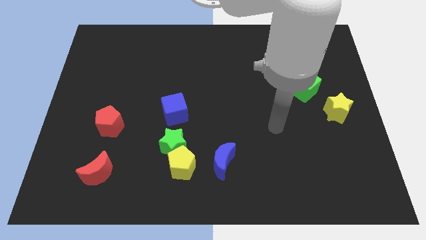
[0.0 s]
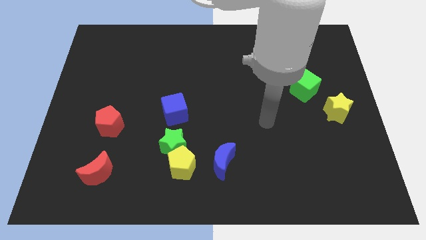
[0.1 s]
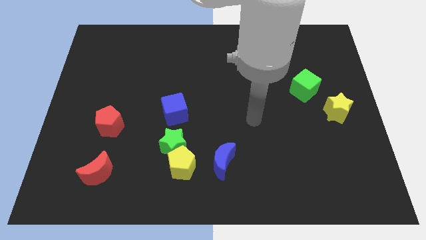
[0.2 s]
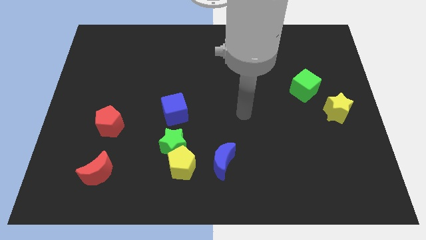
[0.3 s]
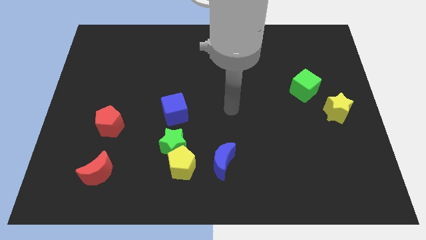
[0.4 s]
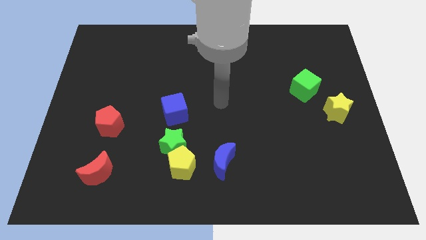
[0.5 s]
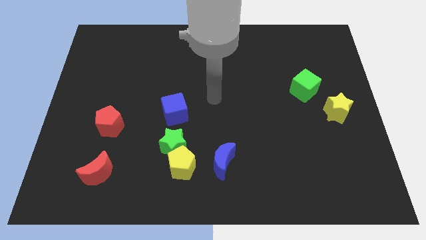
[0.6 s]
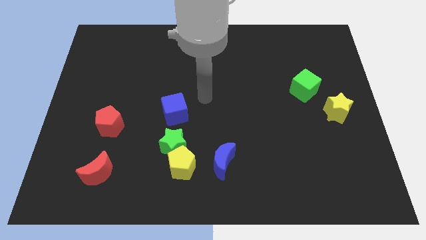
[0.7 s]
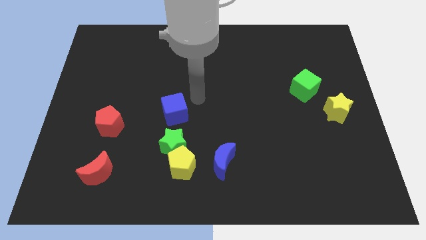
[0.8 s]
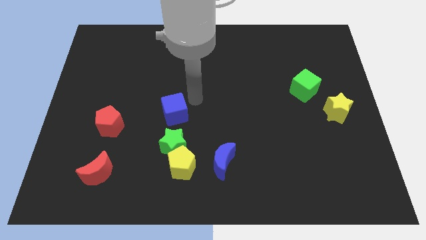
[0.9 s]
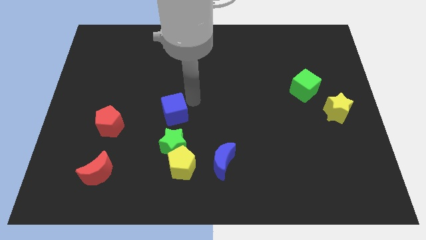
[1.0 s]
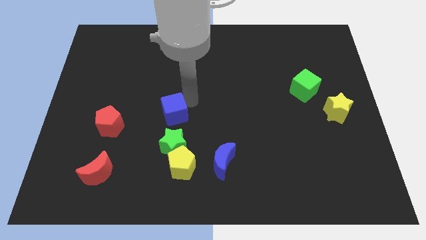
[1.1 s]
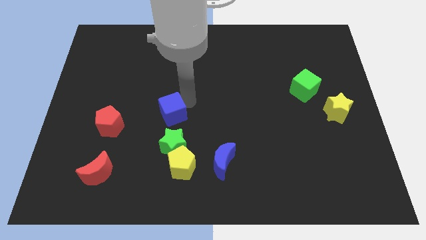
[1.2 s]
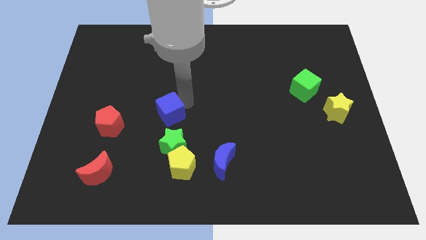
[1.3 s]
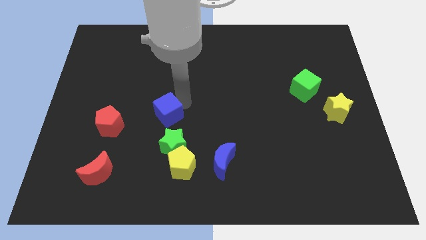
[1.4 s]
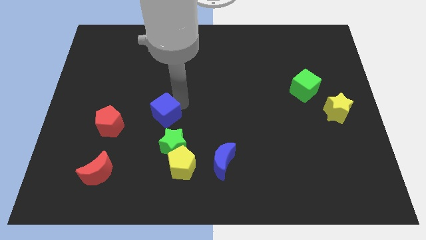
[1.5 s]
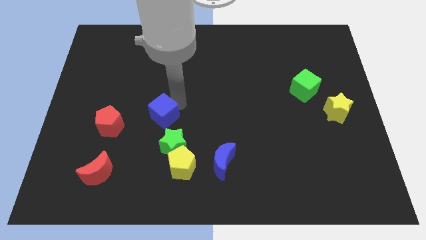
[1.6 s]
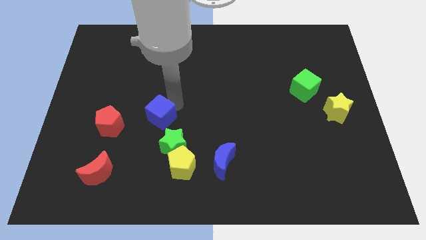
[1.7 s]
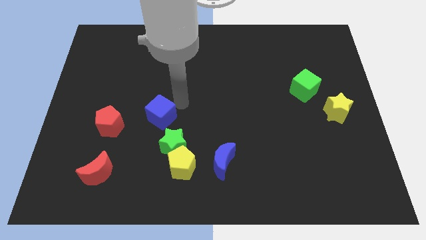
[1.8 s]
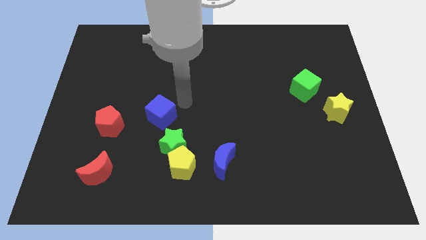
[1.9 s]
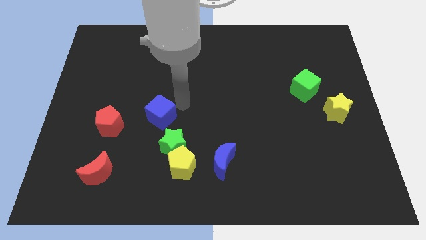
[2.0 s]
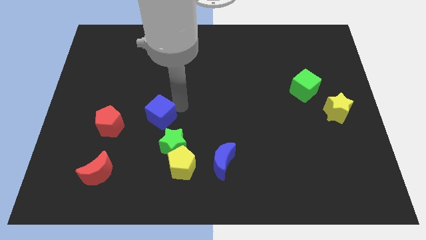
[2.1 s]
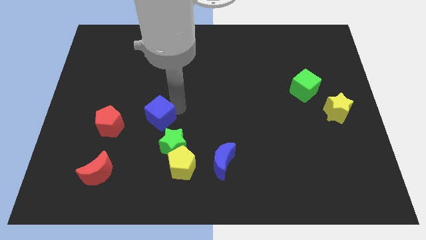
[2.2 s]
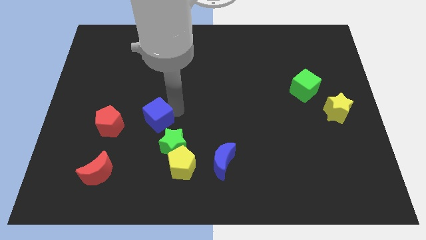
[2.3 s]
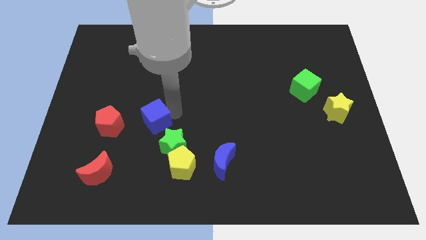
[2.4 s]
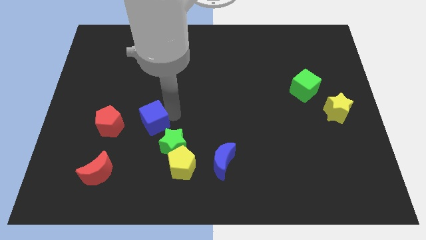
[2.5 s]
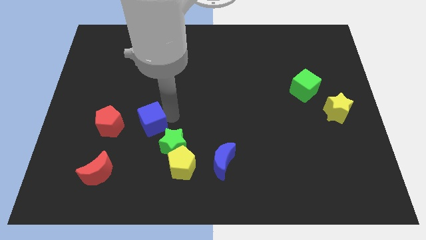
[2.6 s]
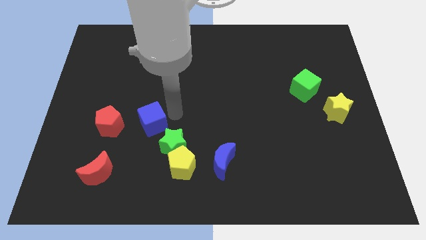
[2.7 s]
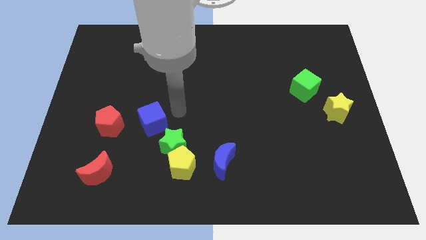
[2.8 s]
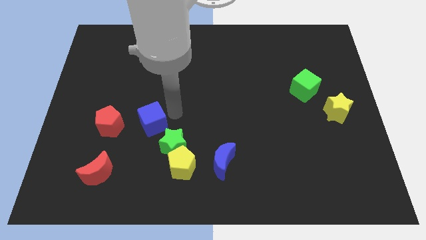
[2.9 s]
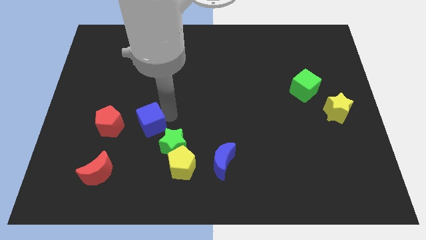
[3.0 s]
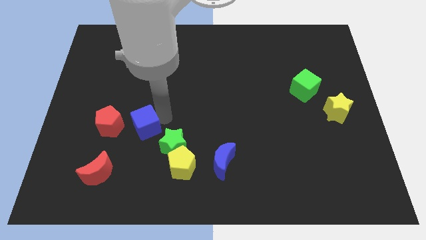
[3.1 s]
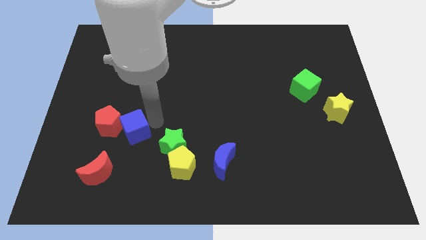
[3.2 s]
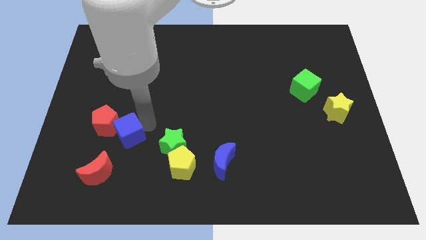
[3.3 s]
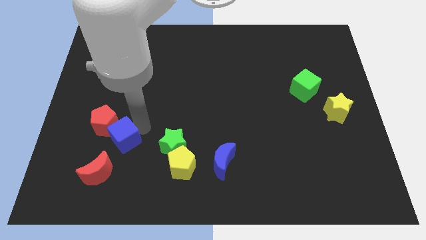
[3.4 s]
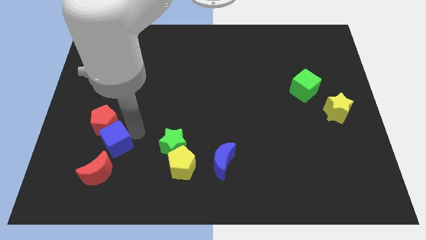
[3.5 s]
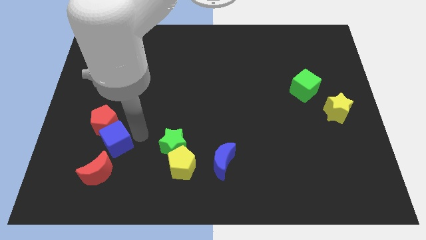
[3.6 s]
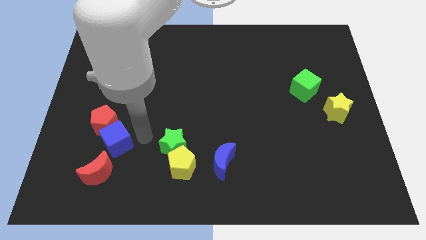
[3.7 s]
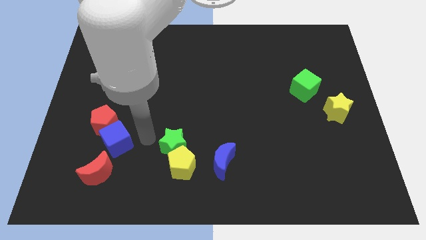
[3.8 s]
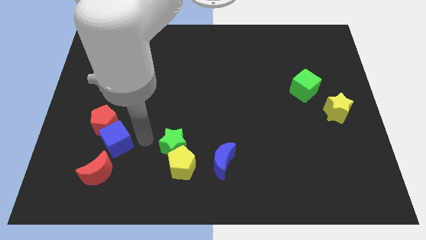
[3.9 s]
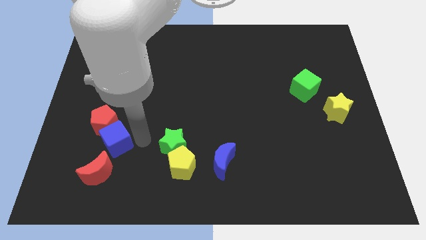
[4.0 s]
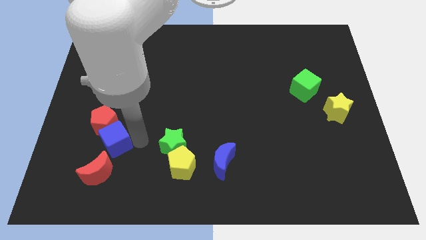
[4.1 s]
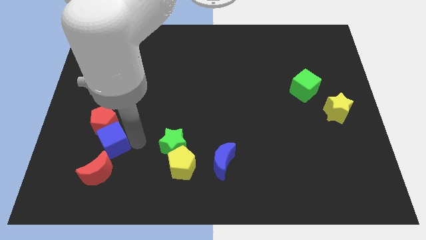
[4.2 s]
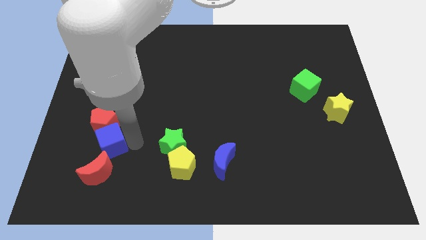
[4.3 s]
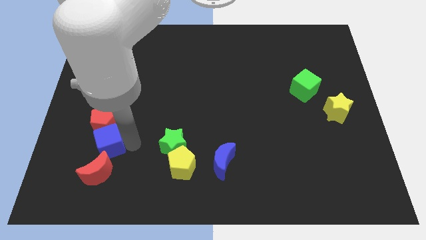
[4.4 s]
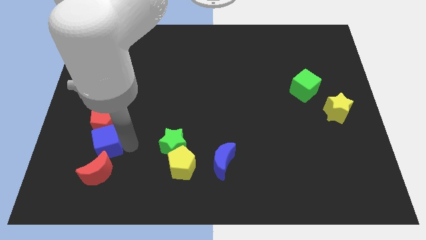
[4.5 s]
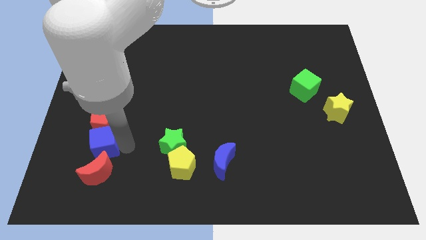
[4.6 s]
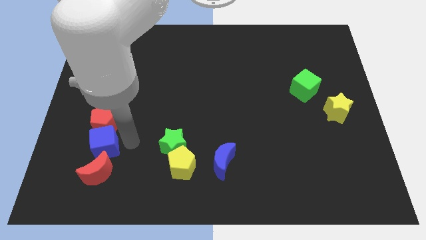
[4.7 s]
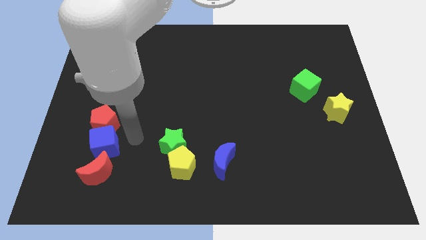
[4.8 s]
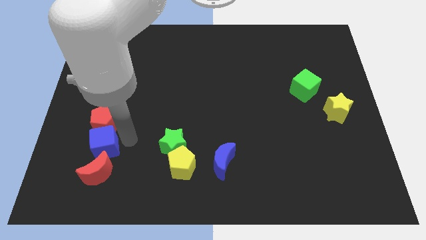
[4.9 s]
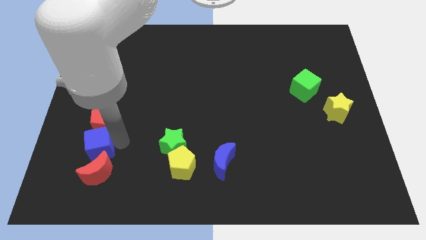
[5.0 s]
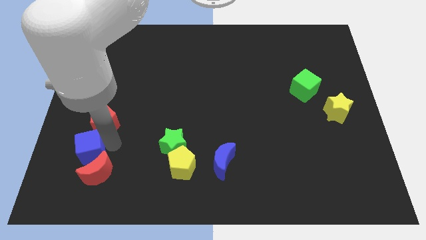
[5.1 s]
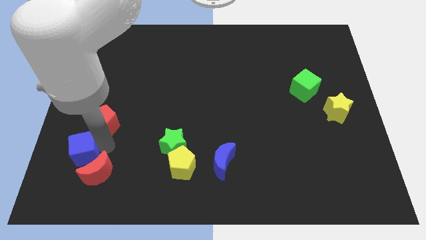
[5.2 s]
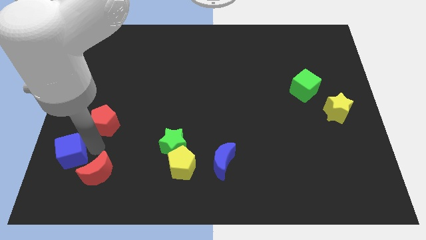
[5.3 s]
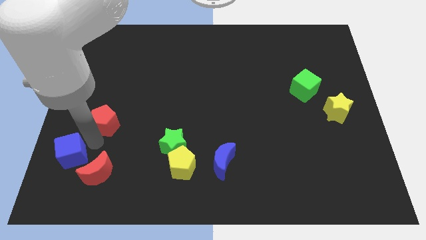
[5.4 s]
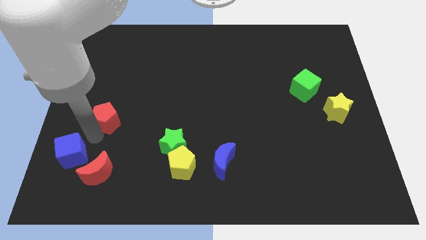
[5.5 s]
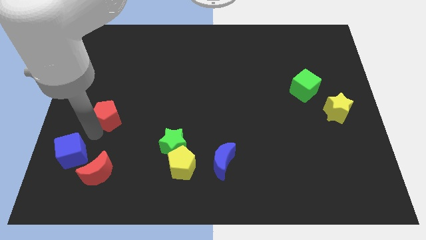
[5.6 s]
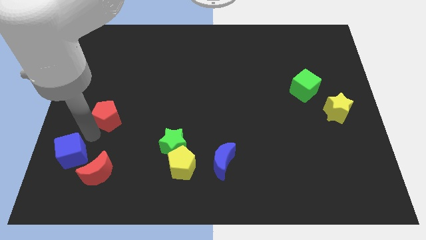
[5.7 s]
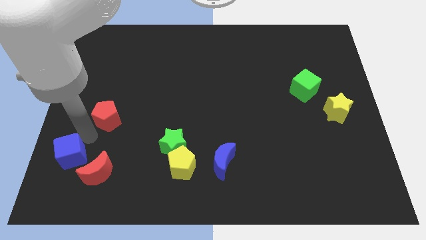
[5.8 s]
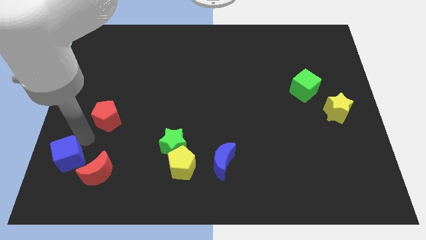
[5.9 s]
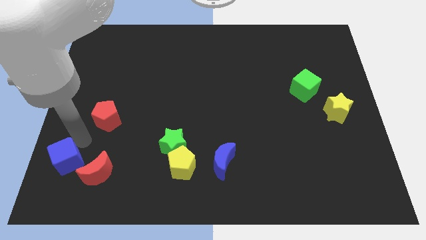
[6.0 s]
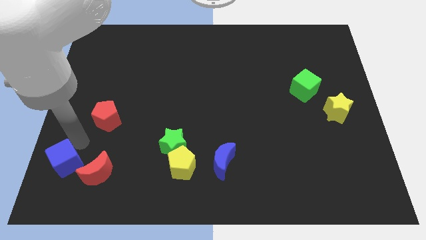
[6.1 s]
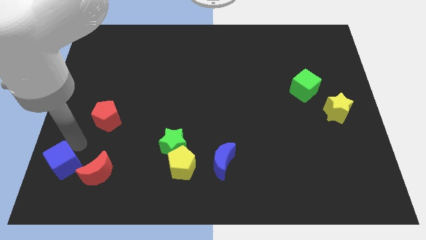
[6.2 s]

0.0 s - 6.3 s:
put the blue cube to the bottom left corner
